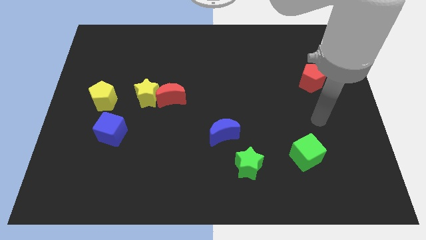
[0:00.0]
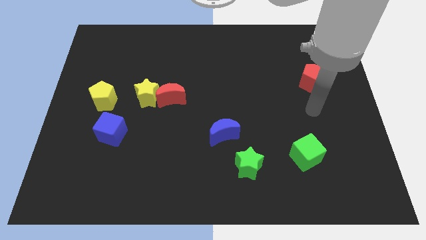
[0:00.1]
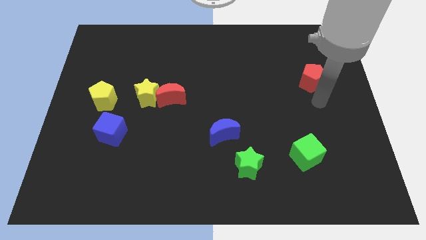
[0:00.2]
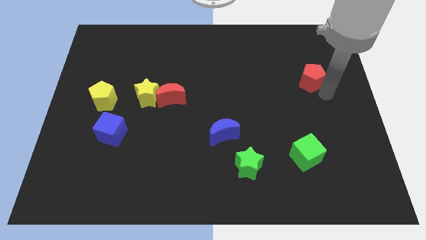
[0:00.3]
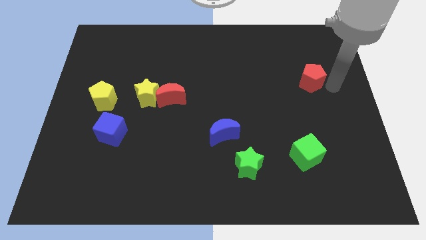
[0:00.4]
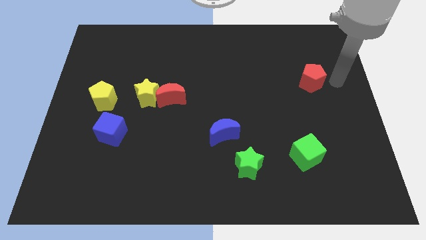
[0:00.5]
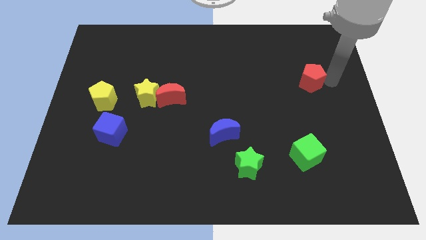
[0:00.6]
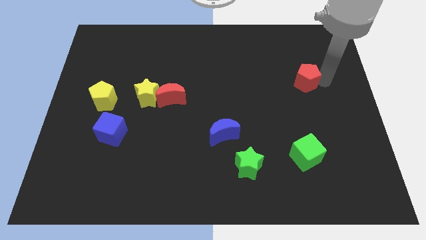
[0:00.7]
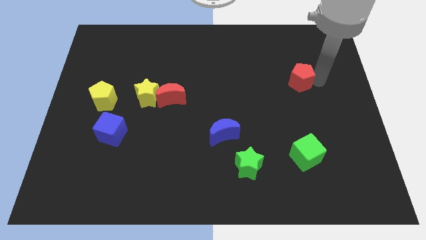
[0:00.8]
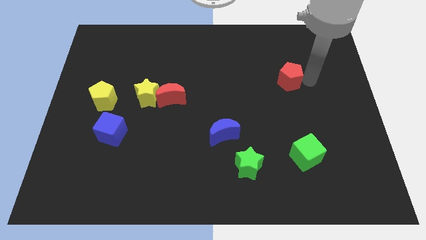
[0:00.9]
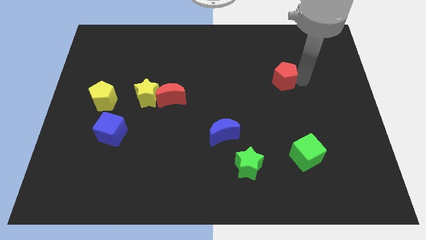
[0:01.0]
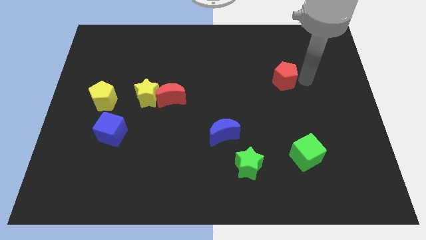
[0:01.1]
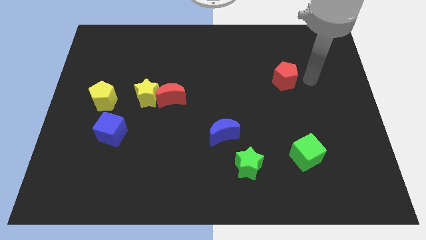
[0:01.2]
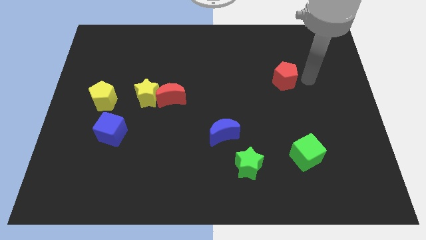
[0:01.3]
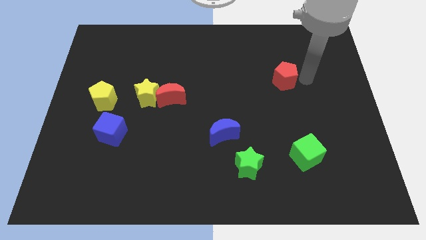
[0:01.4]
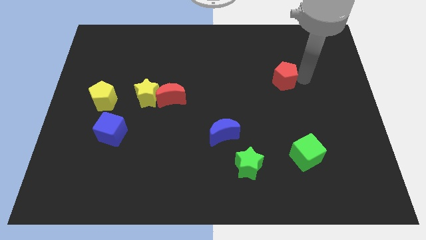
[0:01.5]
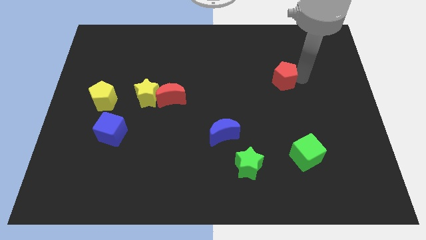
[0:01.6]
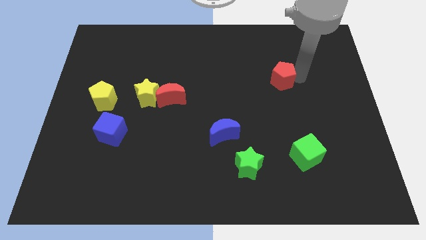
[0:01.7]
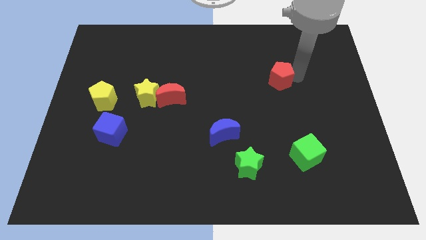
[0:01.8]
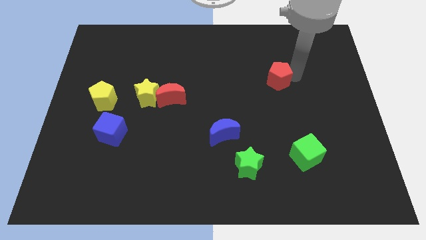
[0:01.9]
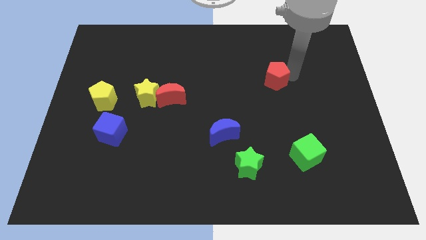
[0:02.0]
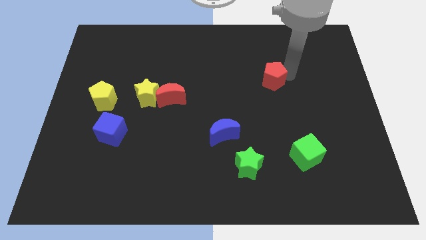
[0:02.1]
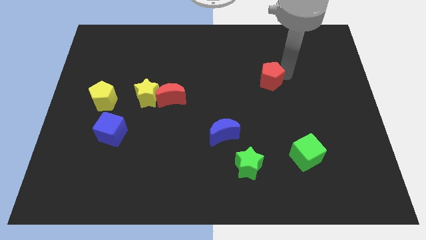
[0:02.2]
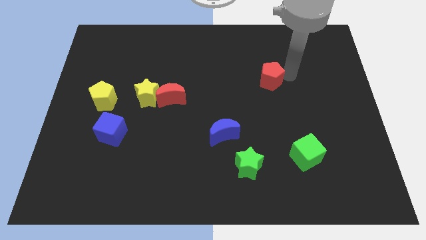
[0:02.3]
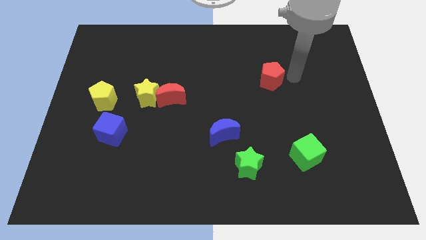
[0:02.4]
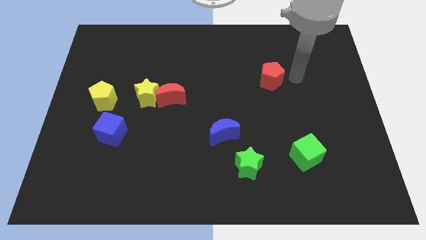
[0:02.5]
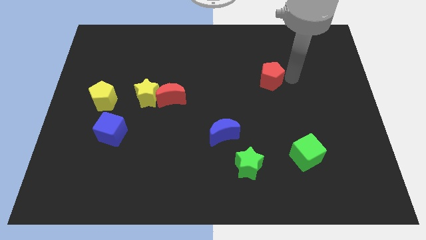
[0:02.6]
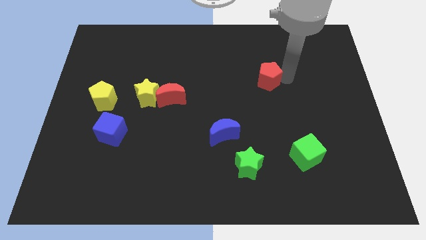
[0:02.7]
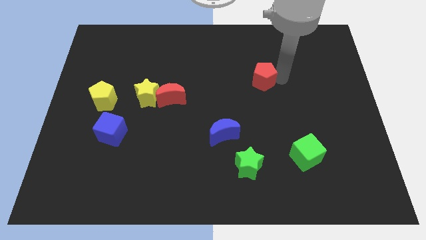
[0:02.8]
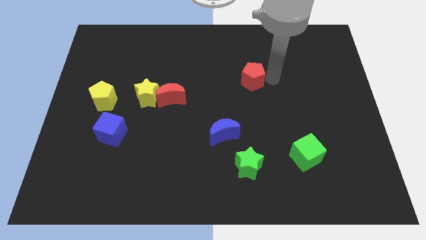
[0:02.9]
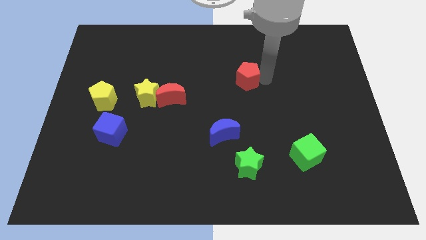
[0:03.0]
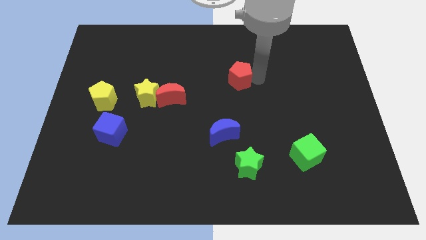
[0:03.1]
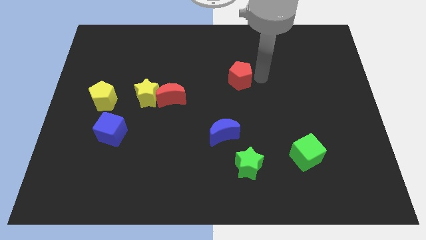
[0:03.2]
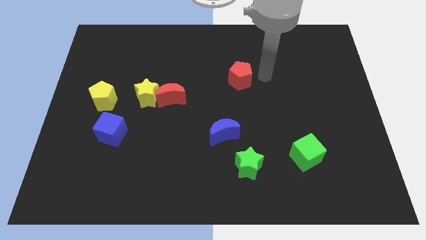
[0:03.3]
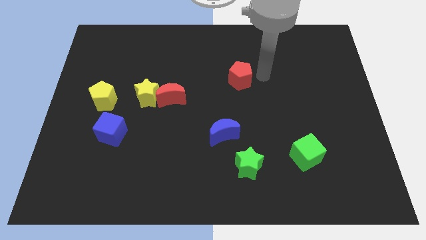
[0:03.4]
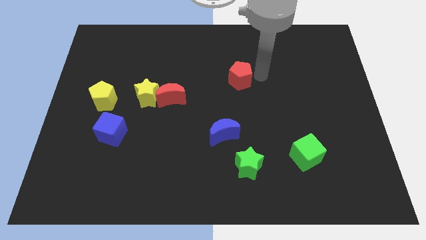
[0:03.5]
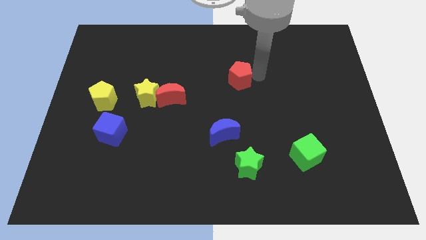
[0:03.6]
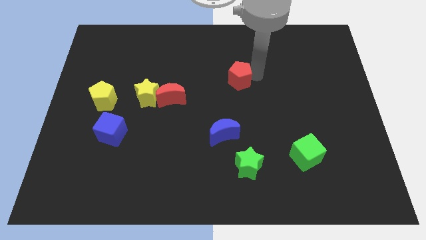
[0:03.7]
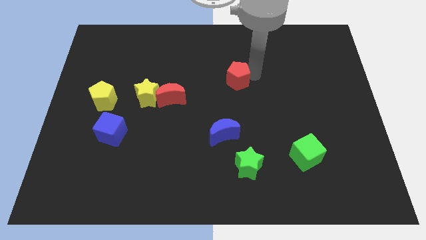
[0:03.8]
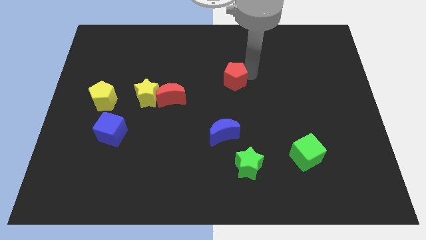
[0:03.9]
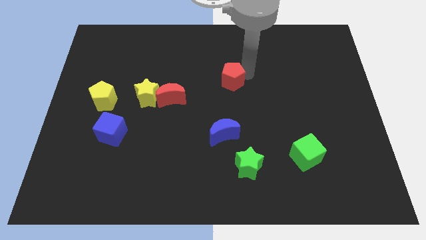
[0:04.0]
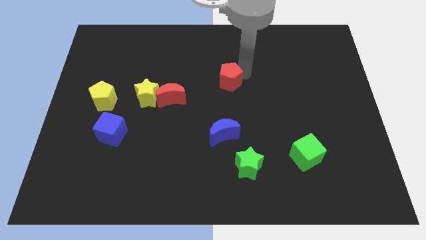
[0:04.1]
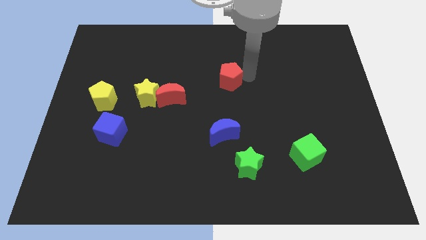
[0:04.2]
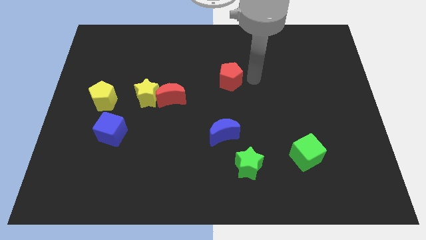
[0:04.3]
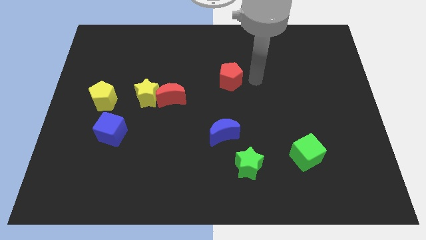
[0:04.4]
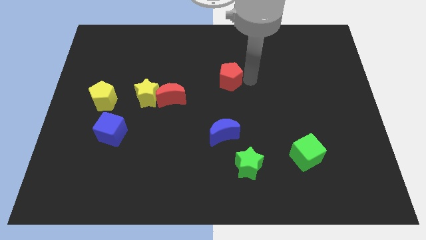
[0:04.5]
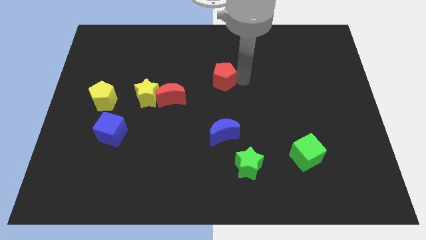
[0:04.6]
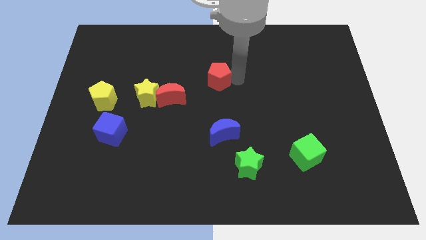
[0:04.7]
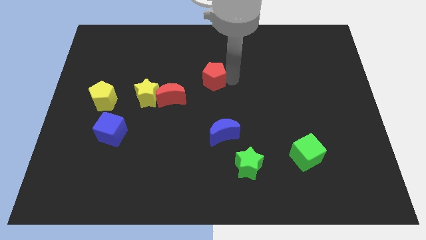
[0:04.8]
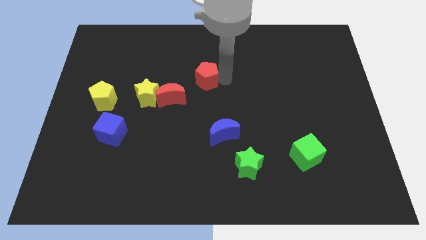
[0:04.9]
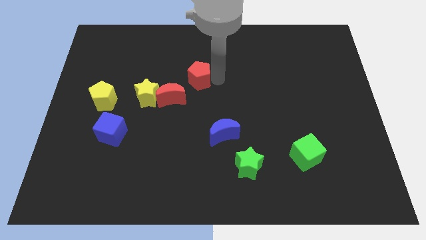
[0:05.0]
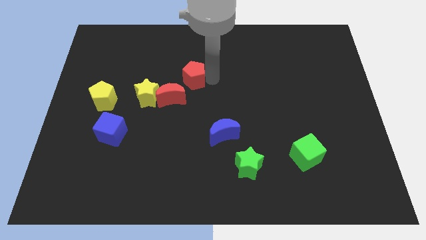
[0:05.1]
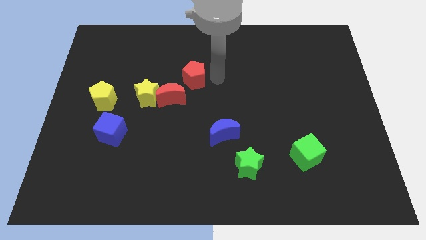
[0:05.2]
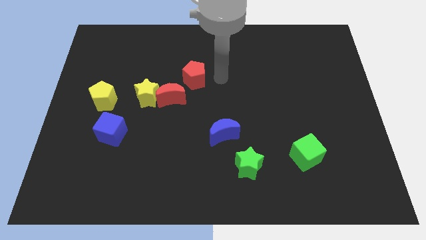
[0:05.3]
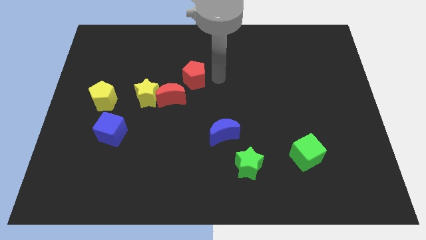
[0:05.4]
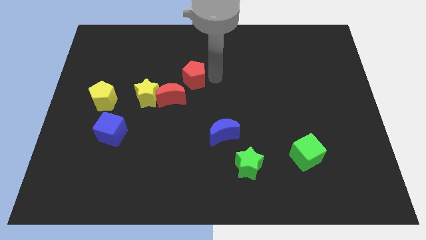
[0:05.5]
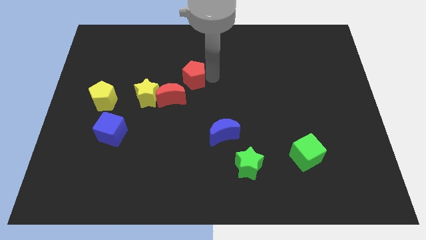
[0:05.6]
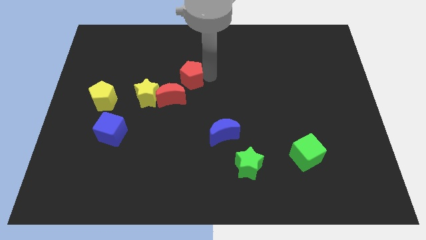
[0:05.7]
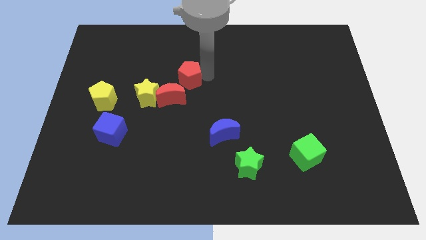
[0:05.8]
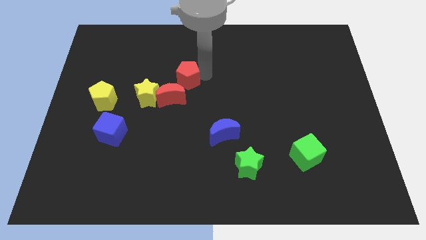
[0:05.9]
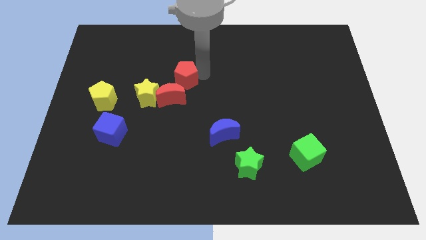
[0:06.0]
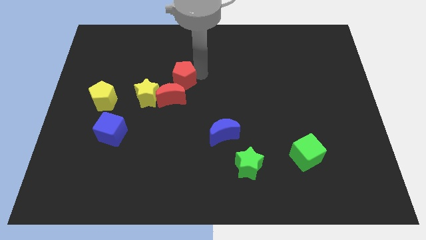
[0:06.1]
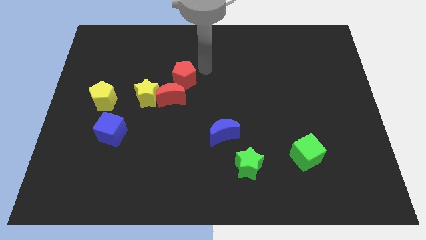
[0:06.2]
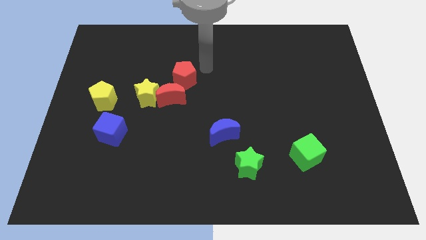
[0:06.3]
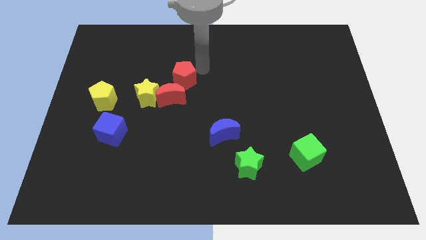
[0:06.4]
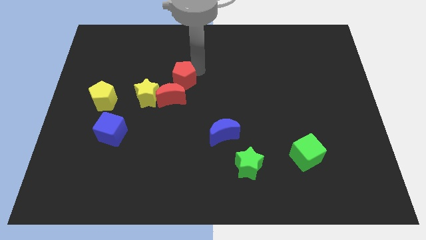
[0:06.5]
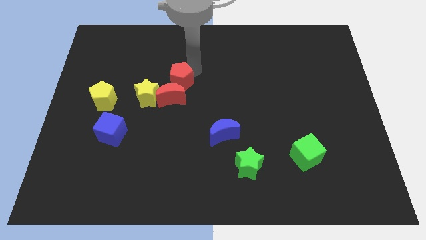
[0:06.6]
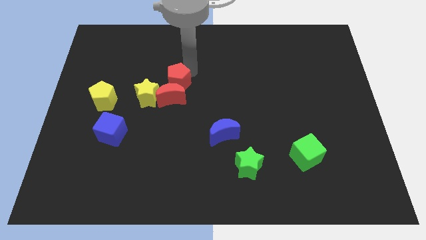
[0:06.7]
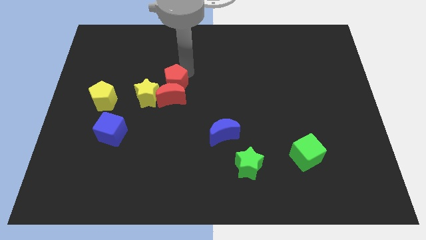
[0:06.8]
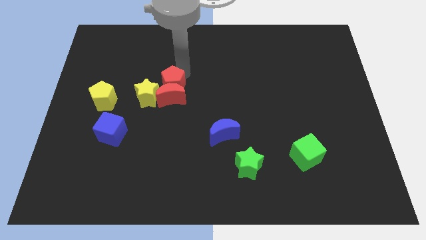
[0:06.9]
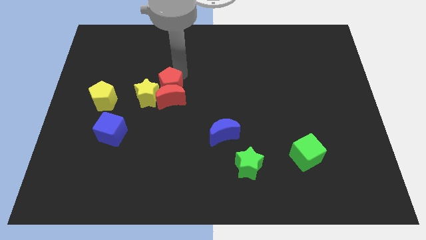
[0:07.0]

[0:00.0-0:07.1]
push the red pentagon towards the yellow star
